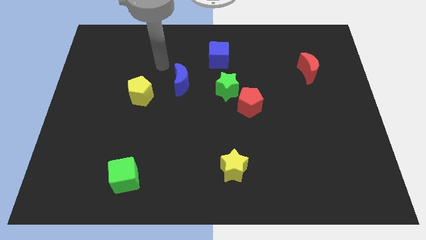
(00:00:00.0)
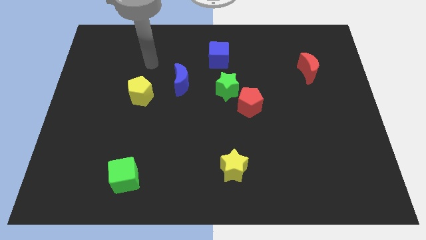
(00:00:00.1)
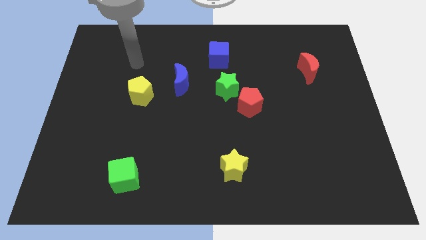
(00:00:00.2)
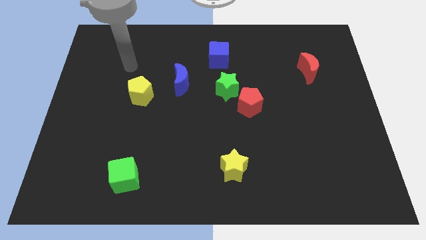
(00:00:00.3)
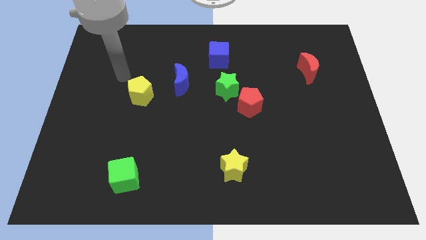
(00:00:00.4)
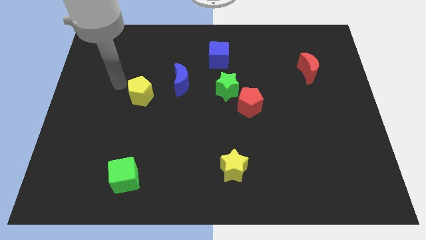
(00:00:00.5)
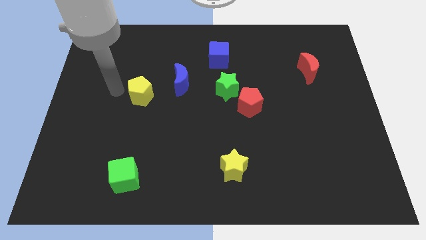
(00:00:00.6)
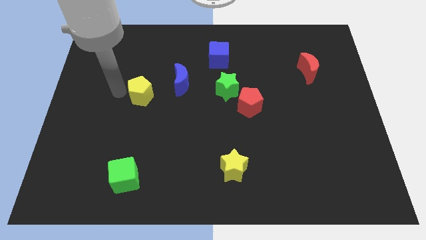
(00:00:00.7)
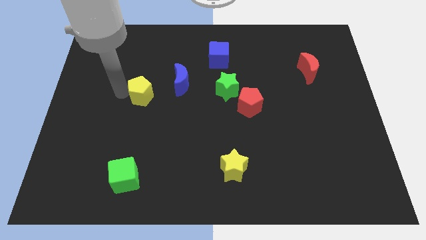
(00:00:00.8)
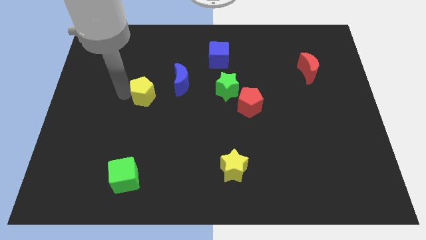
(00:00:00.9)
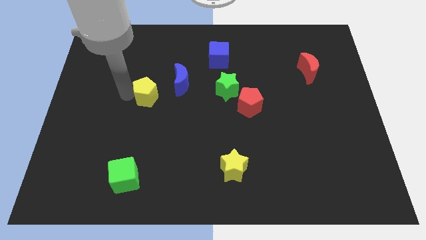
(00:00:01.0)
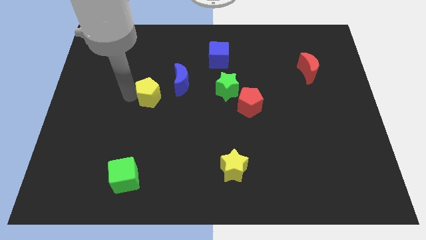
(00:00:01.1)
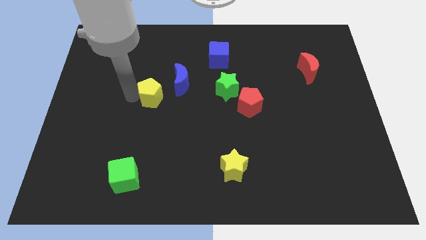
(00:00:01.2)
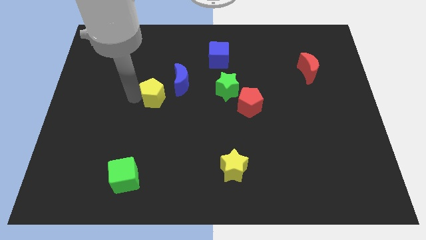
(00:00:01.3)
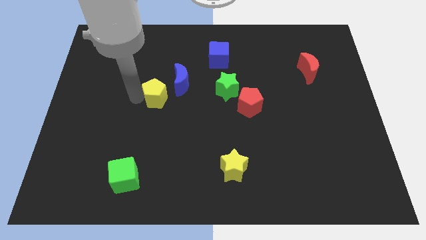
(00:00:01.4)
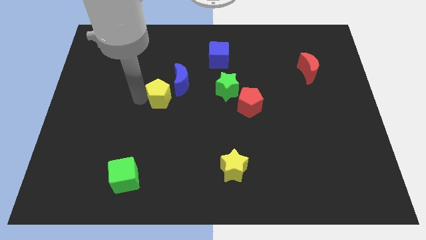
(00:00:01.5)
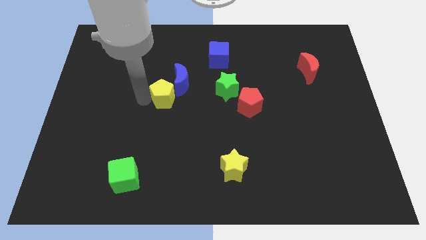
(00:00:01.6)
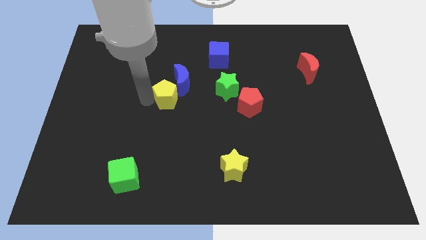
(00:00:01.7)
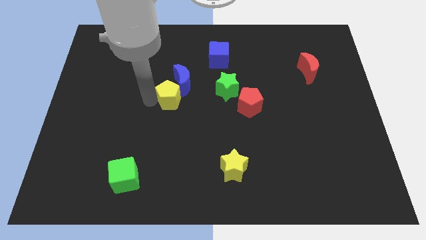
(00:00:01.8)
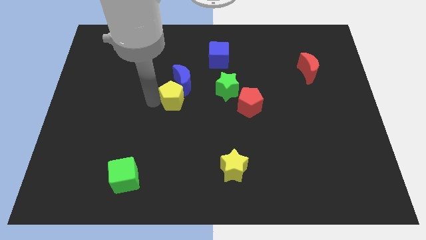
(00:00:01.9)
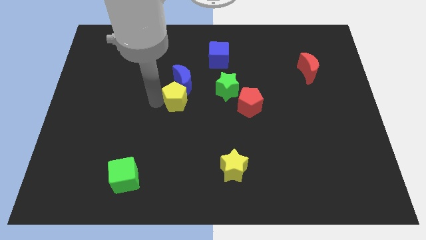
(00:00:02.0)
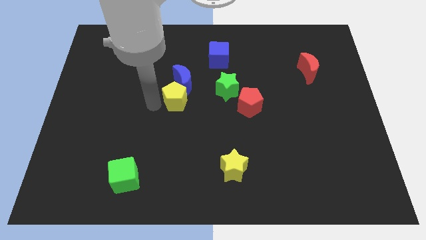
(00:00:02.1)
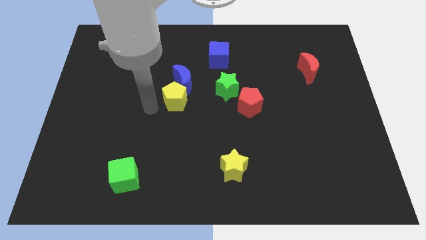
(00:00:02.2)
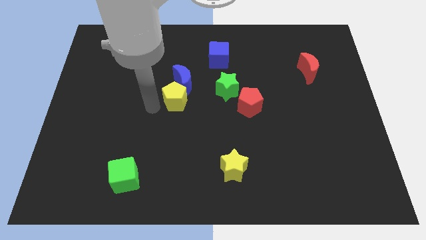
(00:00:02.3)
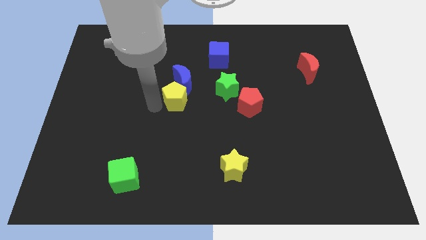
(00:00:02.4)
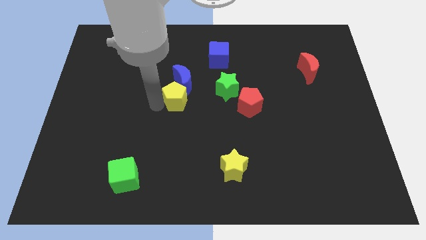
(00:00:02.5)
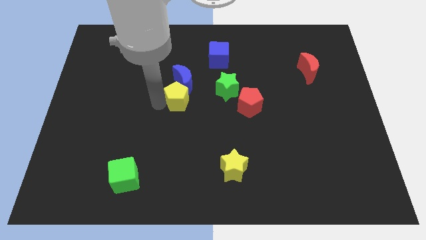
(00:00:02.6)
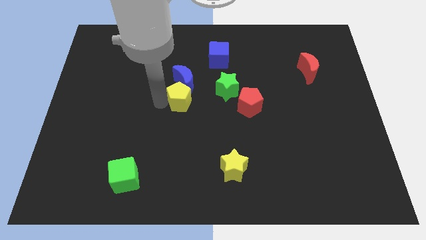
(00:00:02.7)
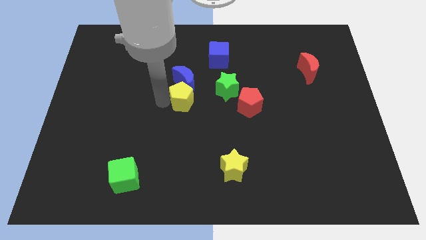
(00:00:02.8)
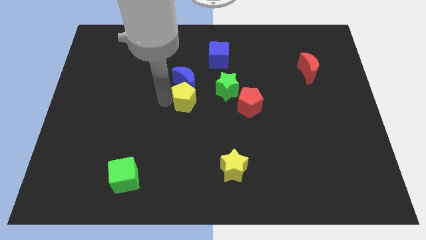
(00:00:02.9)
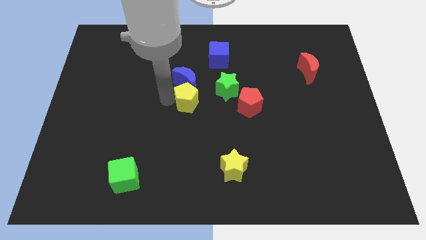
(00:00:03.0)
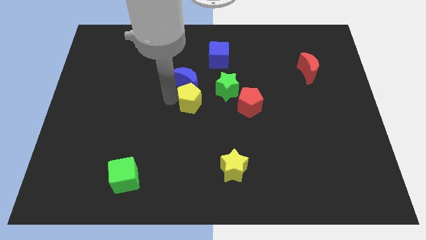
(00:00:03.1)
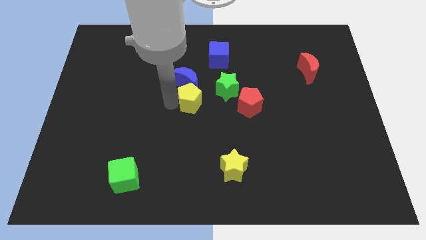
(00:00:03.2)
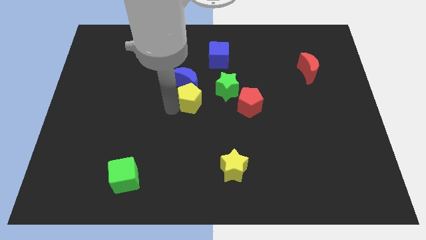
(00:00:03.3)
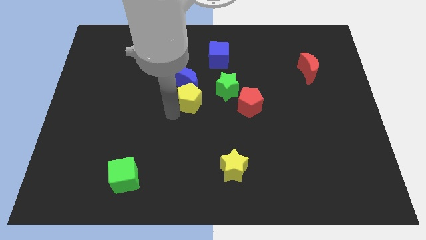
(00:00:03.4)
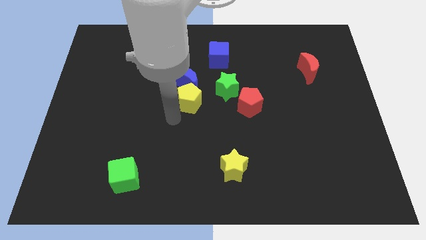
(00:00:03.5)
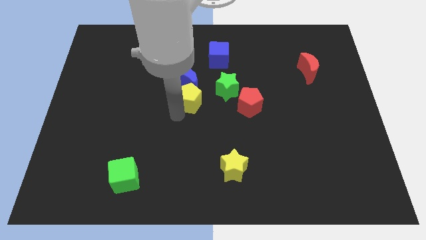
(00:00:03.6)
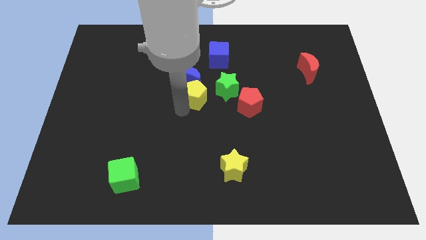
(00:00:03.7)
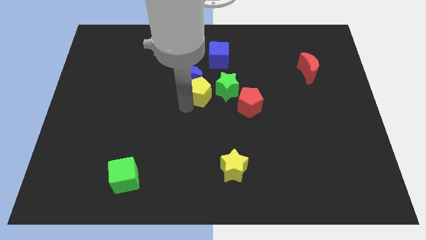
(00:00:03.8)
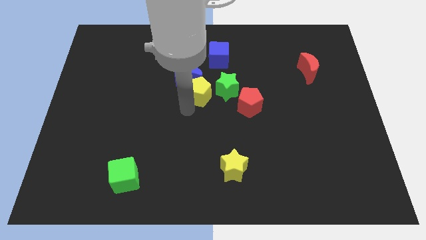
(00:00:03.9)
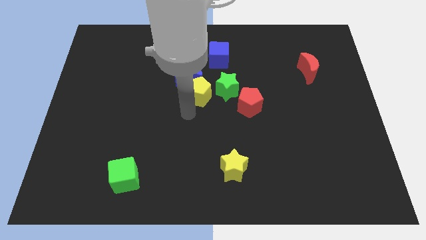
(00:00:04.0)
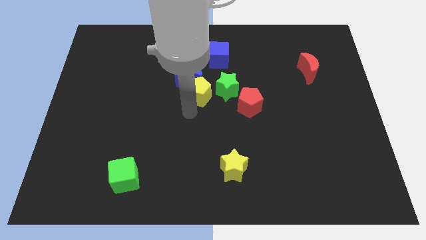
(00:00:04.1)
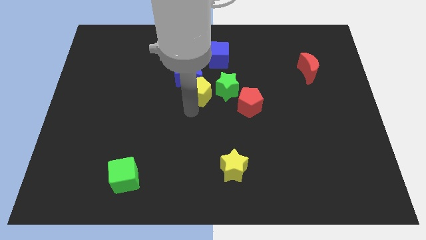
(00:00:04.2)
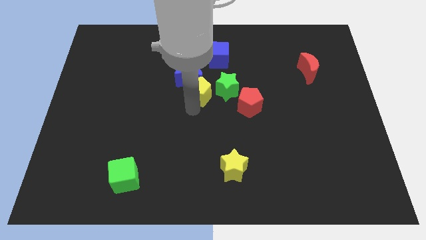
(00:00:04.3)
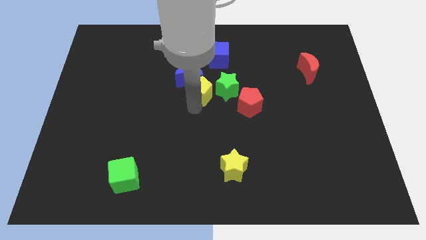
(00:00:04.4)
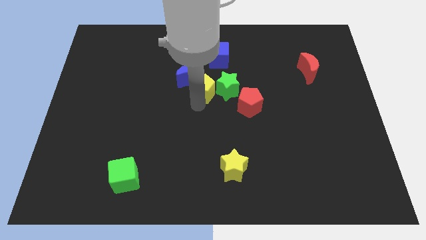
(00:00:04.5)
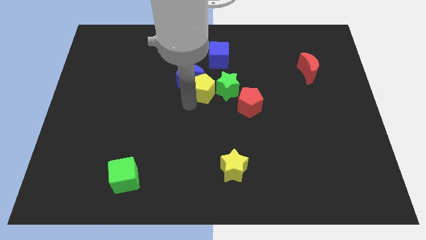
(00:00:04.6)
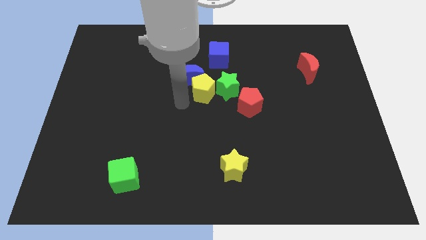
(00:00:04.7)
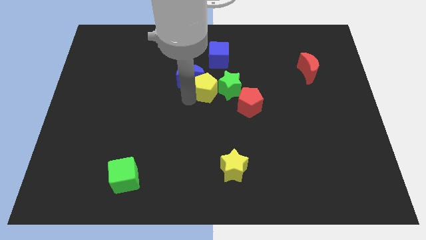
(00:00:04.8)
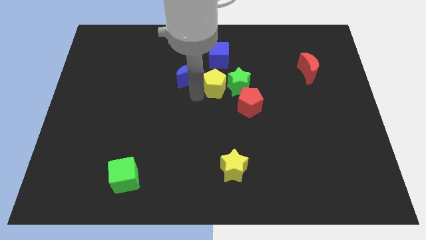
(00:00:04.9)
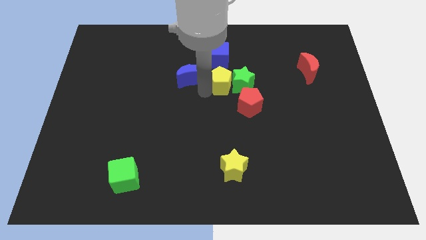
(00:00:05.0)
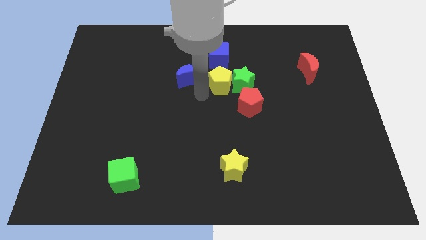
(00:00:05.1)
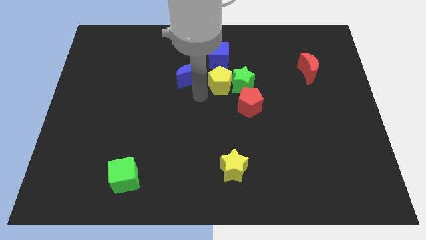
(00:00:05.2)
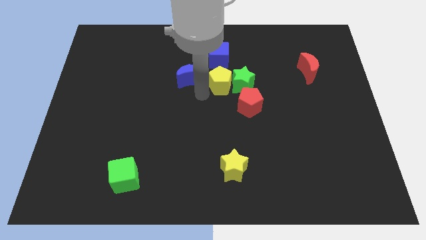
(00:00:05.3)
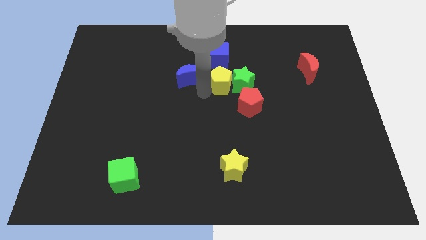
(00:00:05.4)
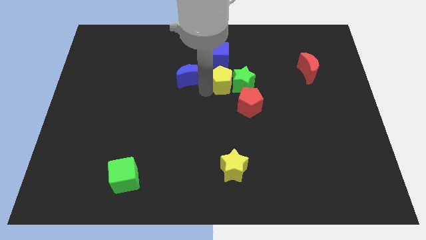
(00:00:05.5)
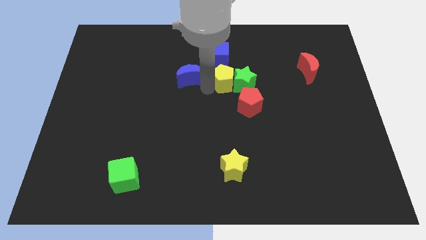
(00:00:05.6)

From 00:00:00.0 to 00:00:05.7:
move the yellow pentagon to the bottom right of the blue cube

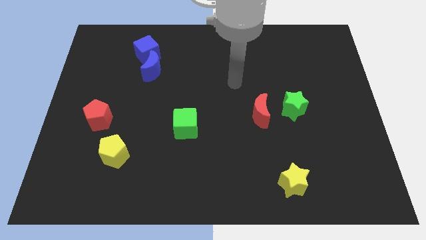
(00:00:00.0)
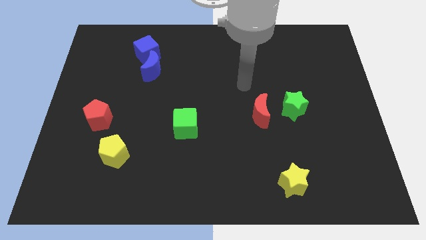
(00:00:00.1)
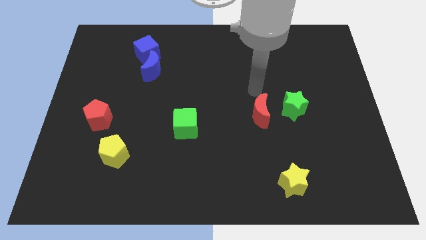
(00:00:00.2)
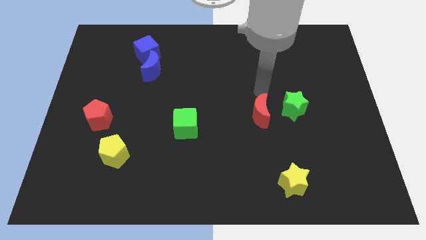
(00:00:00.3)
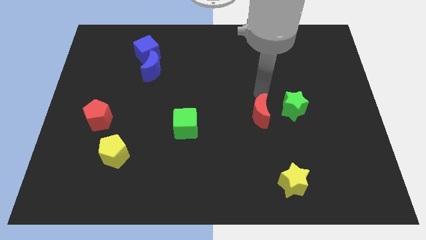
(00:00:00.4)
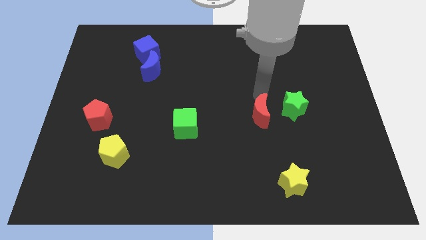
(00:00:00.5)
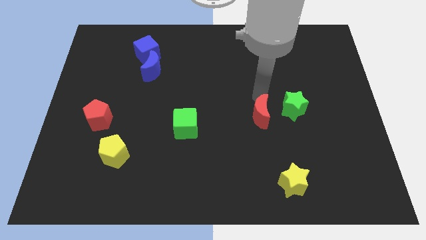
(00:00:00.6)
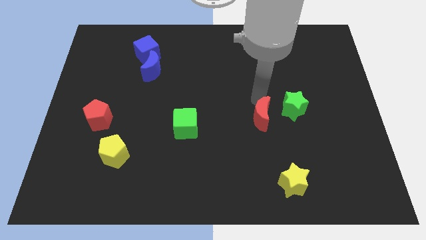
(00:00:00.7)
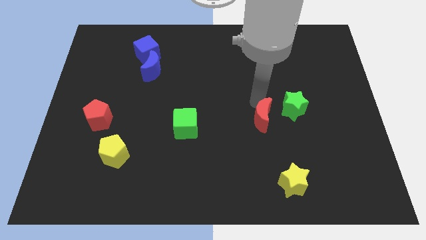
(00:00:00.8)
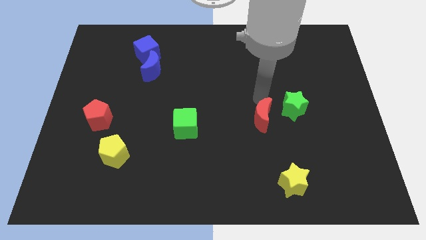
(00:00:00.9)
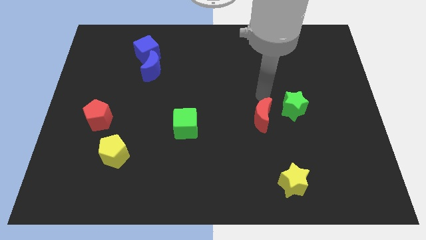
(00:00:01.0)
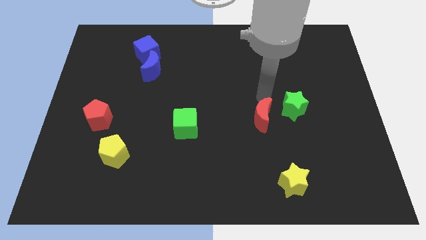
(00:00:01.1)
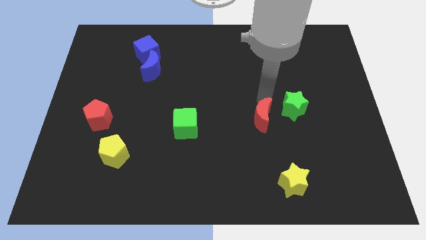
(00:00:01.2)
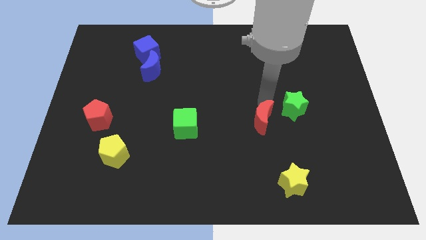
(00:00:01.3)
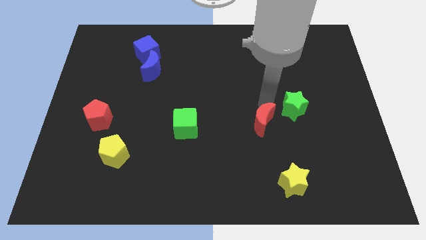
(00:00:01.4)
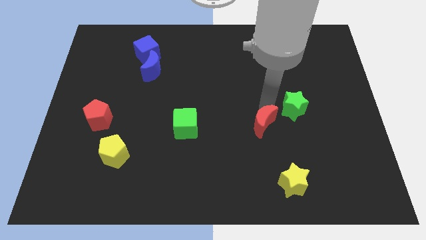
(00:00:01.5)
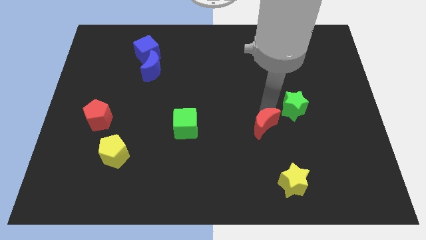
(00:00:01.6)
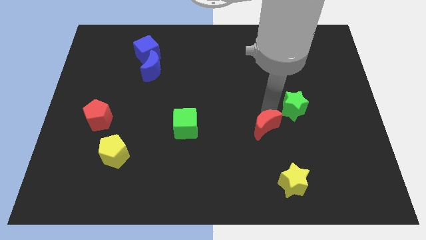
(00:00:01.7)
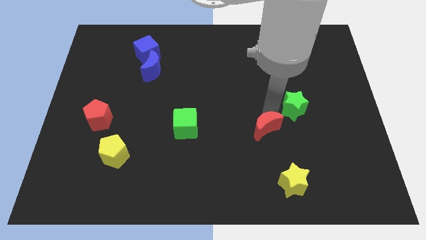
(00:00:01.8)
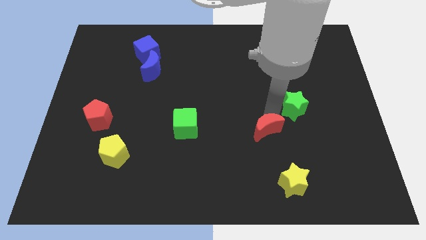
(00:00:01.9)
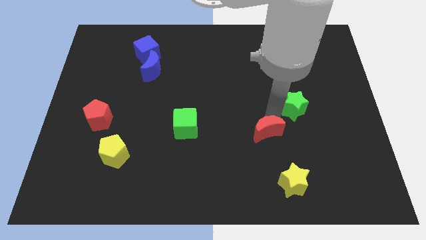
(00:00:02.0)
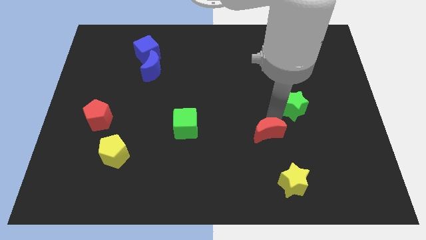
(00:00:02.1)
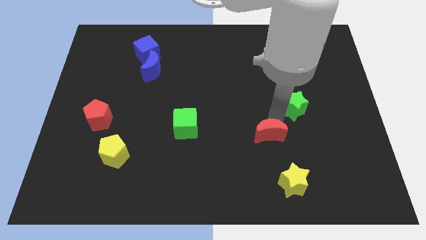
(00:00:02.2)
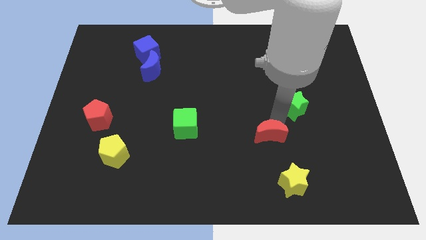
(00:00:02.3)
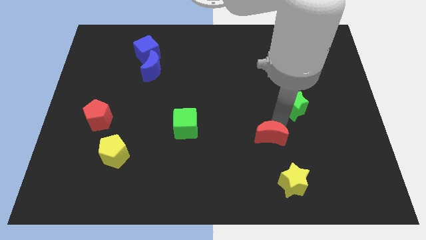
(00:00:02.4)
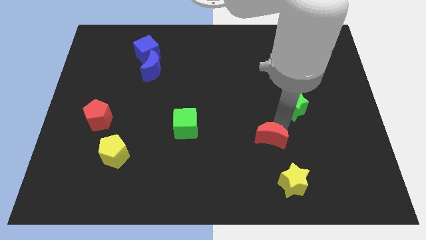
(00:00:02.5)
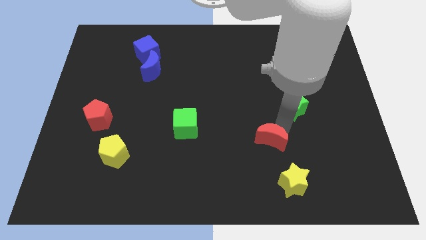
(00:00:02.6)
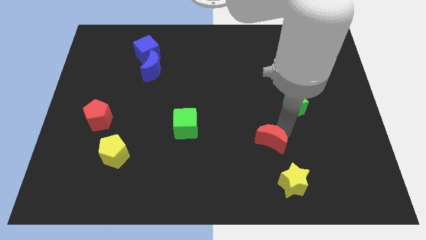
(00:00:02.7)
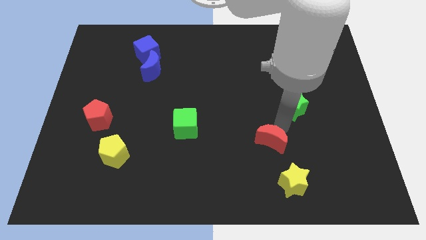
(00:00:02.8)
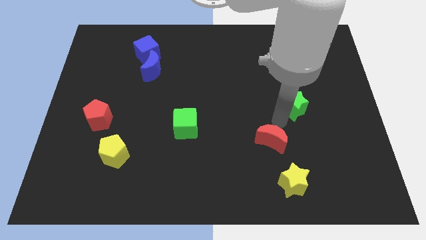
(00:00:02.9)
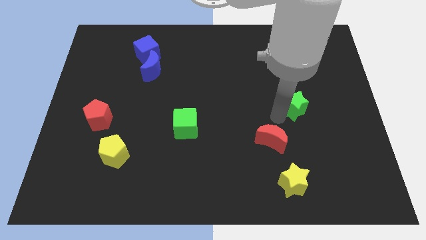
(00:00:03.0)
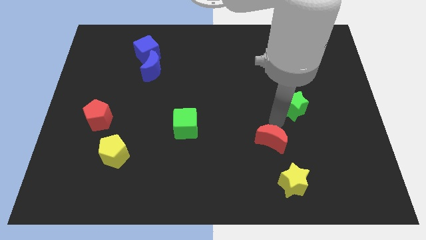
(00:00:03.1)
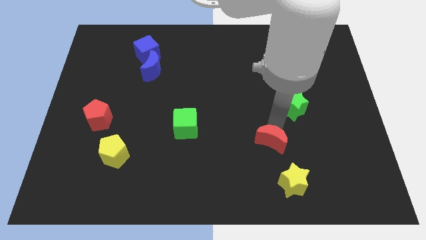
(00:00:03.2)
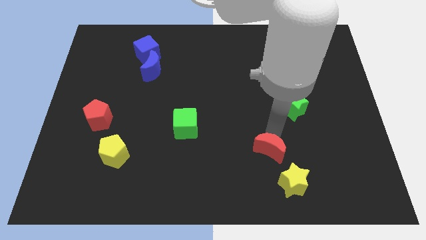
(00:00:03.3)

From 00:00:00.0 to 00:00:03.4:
slide the red moon to the top left of the yellow star
